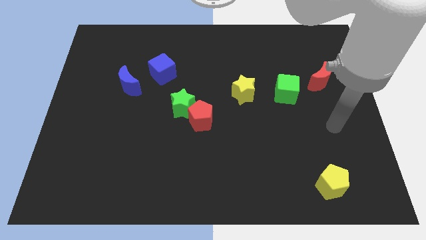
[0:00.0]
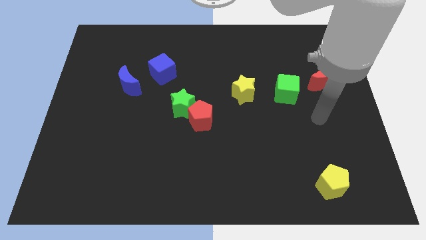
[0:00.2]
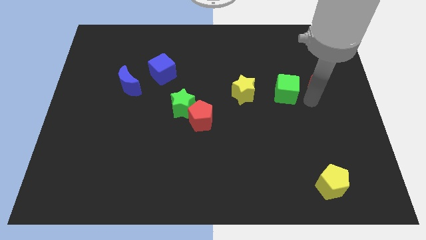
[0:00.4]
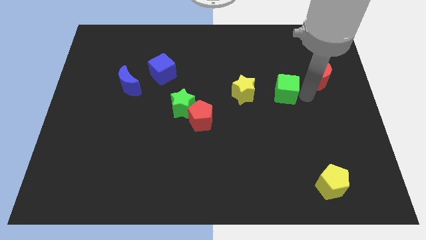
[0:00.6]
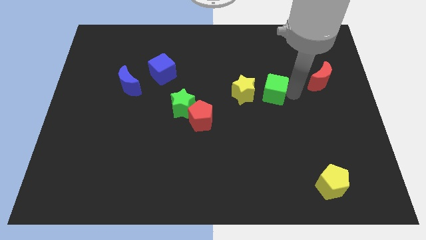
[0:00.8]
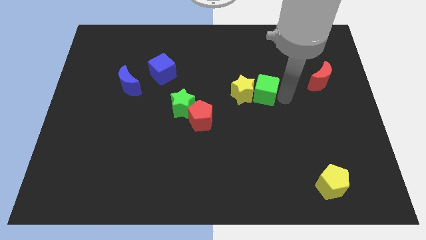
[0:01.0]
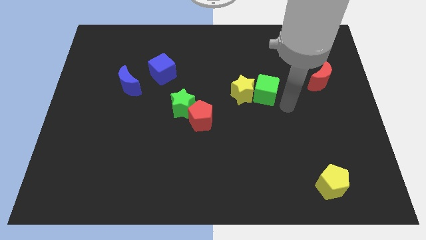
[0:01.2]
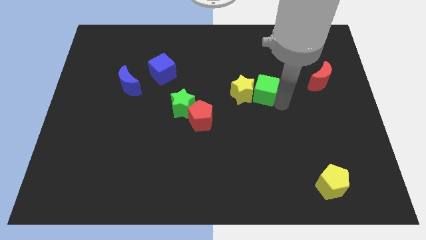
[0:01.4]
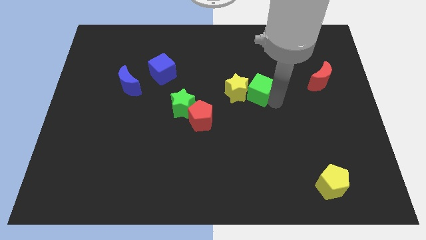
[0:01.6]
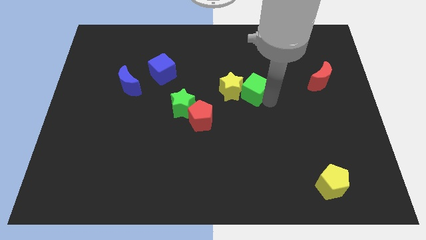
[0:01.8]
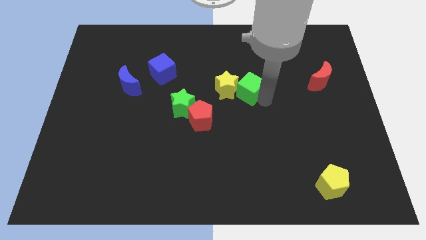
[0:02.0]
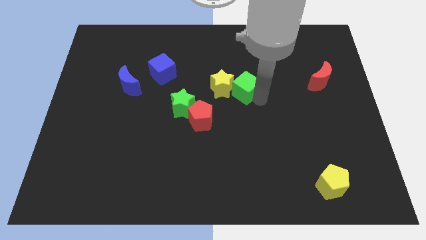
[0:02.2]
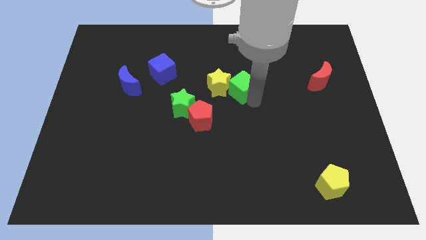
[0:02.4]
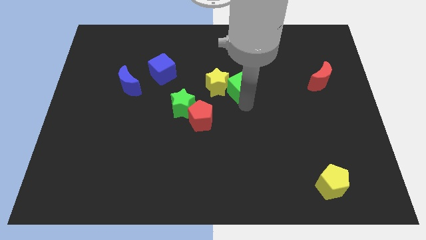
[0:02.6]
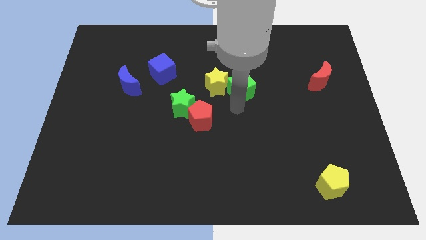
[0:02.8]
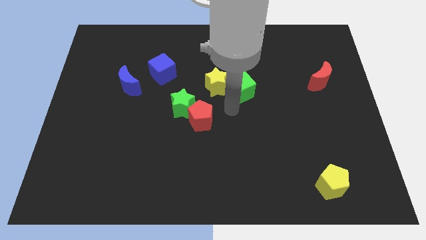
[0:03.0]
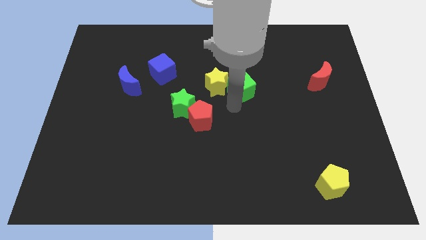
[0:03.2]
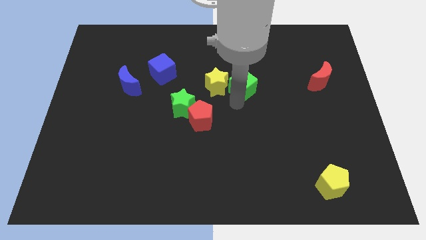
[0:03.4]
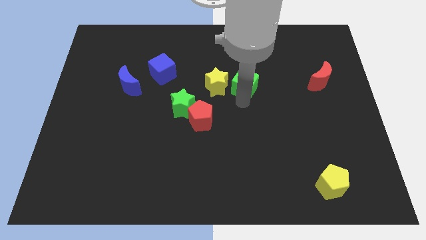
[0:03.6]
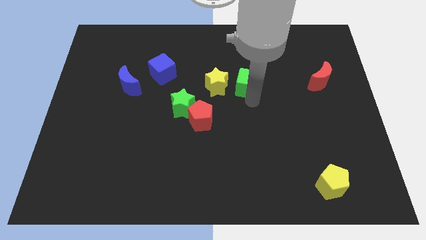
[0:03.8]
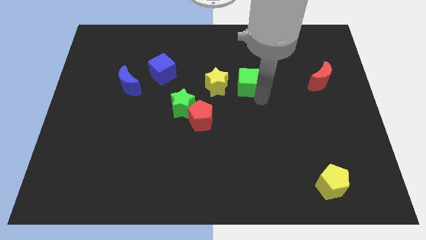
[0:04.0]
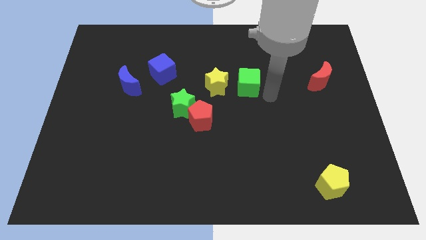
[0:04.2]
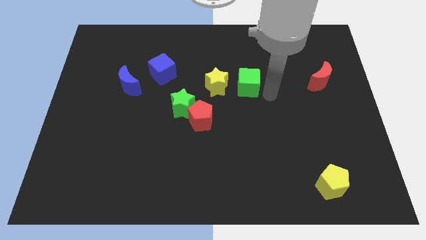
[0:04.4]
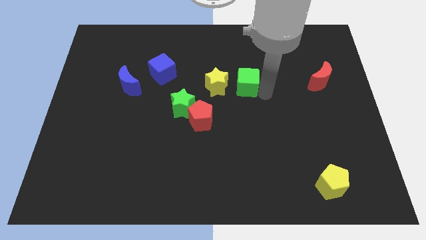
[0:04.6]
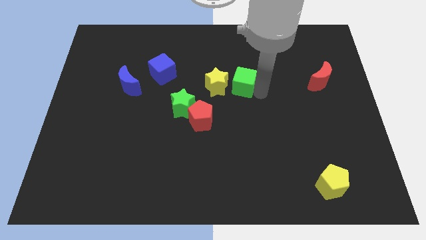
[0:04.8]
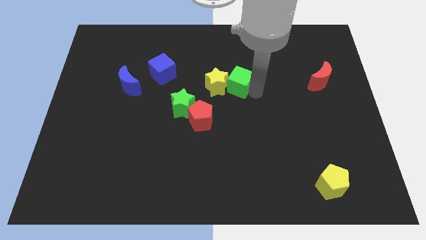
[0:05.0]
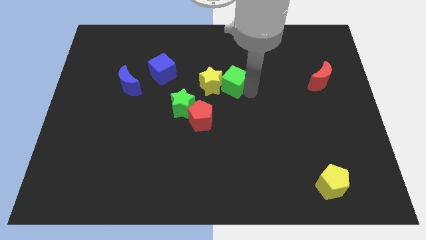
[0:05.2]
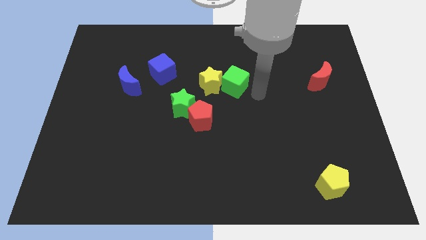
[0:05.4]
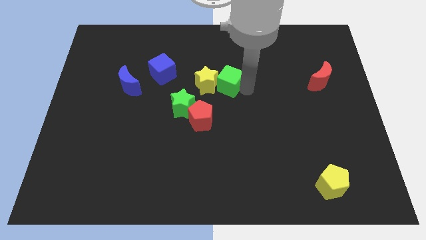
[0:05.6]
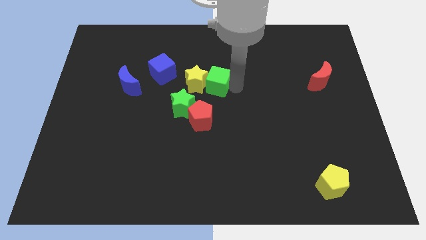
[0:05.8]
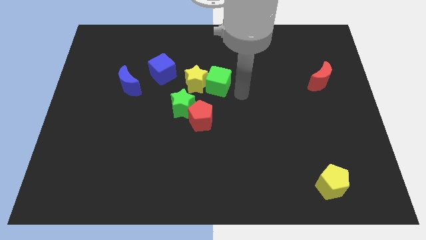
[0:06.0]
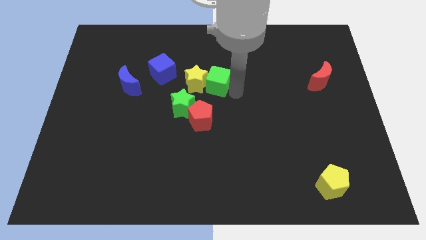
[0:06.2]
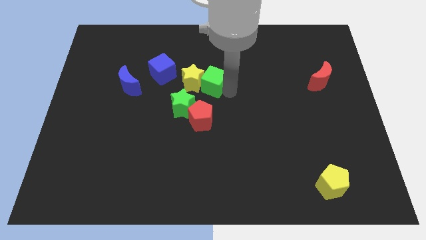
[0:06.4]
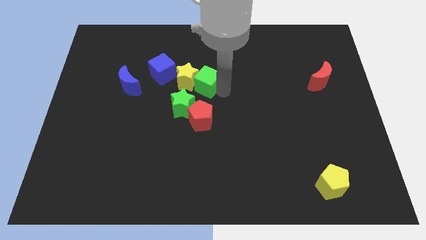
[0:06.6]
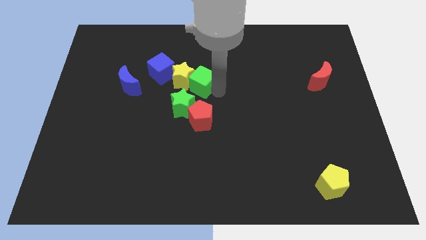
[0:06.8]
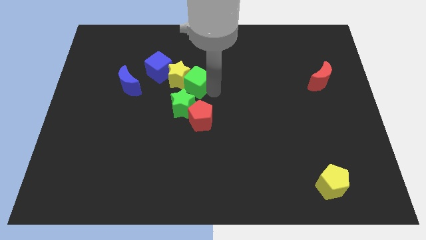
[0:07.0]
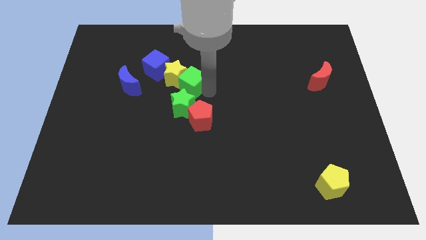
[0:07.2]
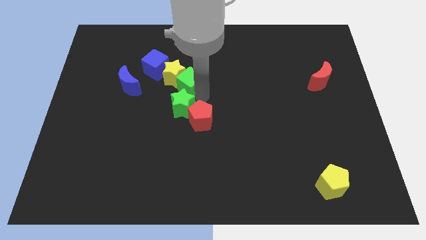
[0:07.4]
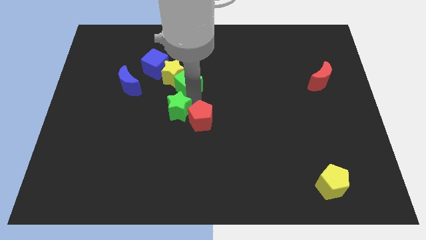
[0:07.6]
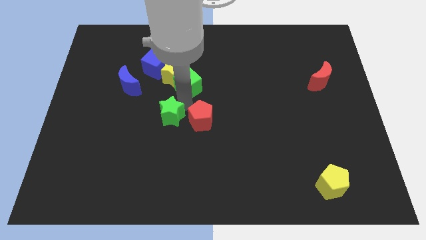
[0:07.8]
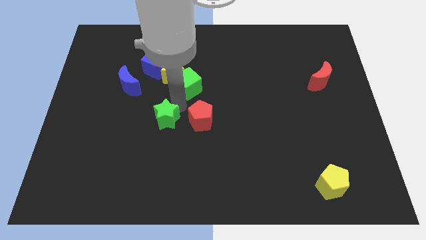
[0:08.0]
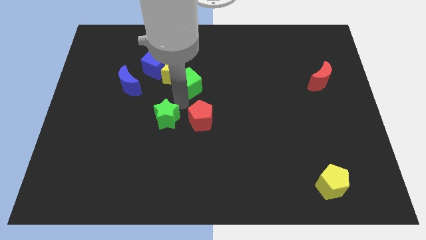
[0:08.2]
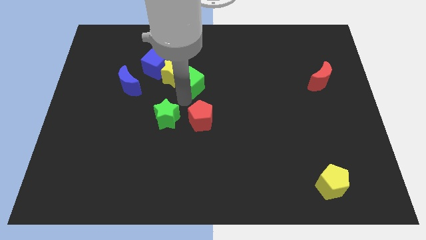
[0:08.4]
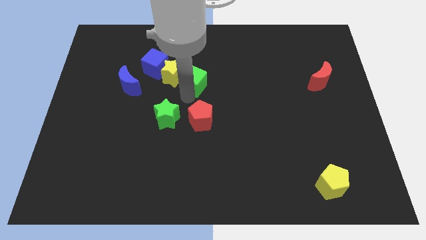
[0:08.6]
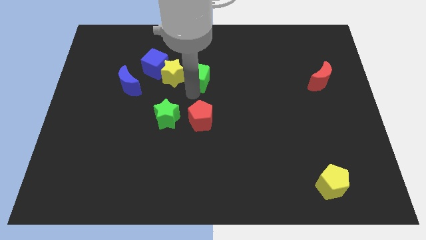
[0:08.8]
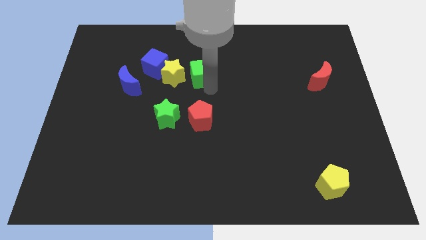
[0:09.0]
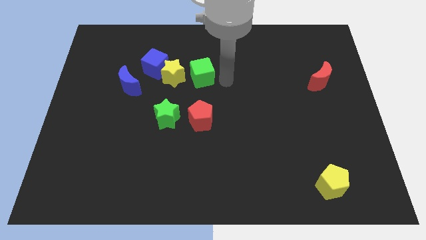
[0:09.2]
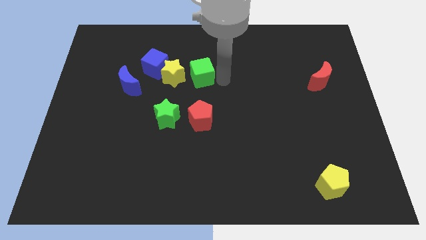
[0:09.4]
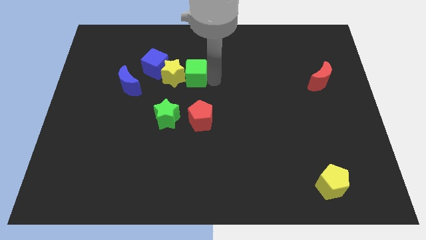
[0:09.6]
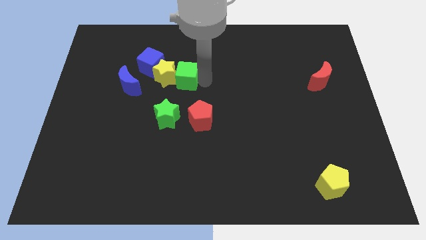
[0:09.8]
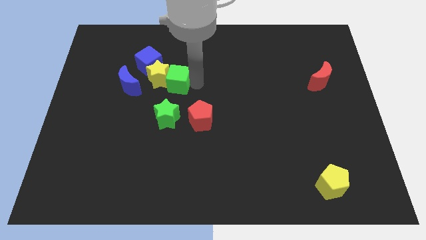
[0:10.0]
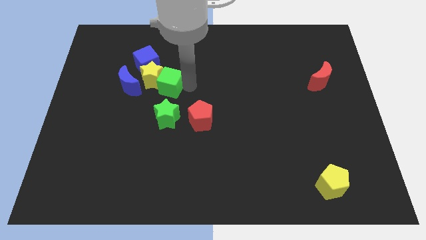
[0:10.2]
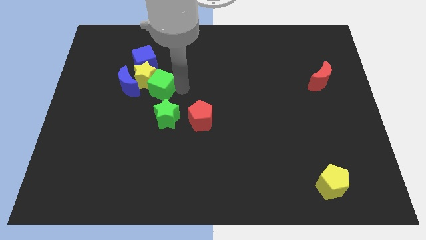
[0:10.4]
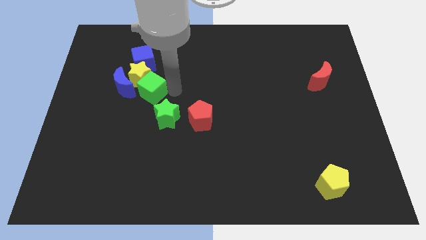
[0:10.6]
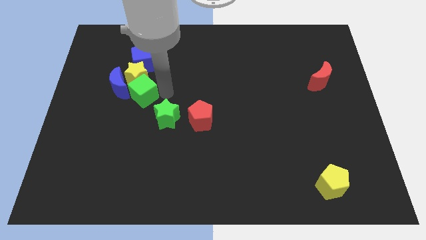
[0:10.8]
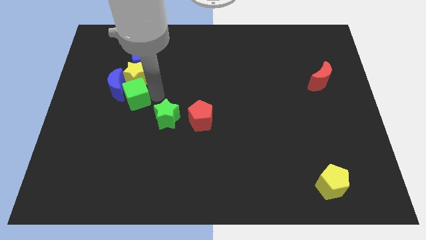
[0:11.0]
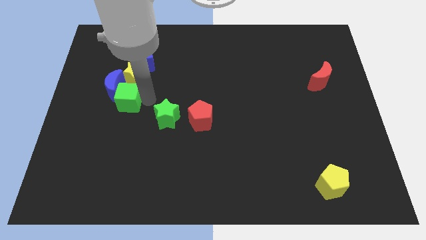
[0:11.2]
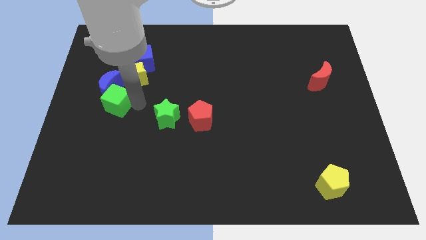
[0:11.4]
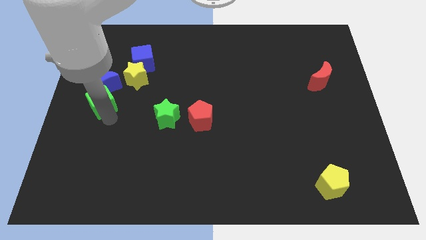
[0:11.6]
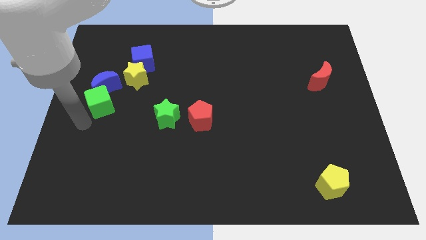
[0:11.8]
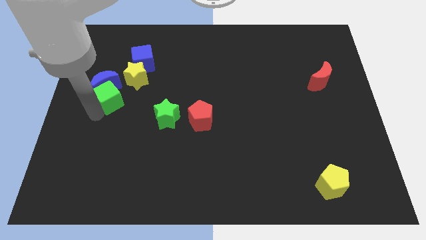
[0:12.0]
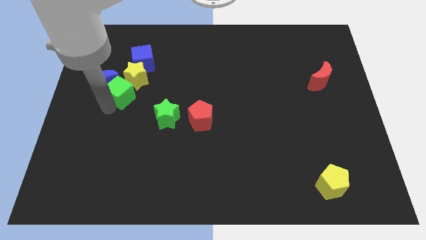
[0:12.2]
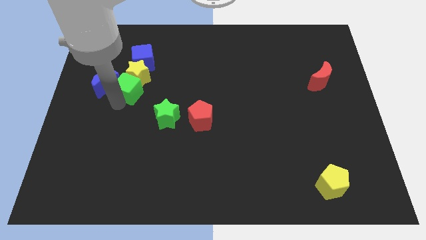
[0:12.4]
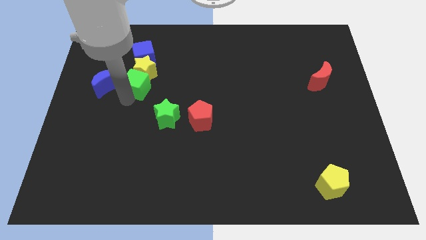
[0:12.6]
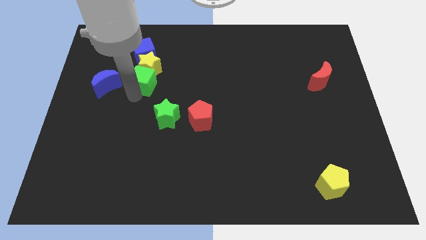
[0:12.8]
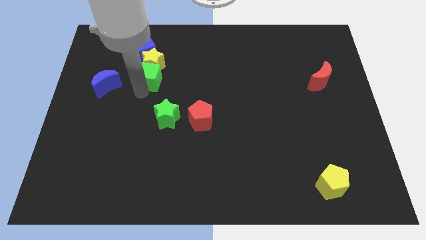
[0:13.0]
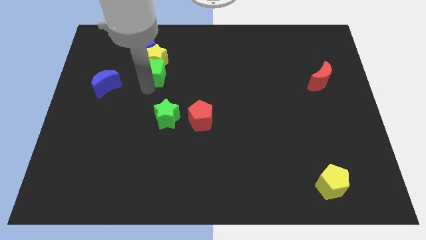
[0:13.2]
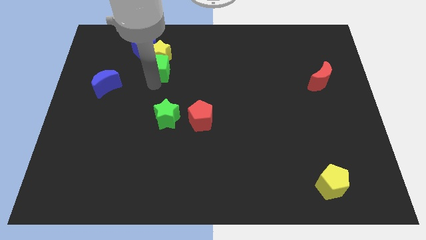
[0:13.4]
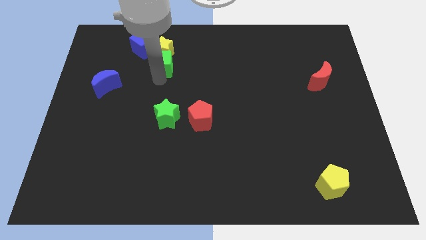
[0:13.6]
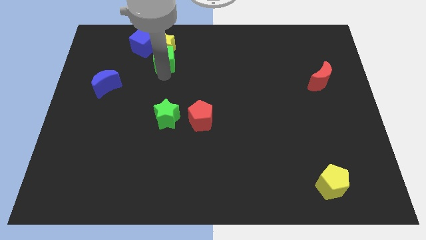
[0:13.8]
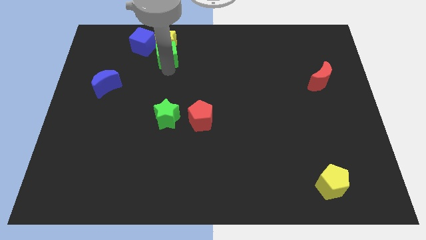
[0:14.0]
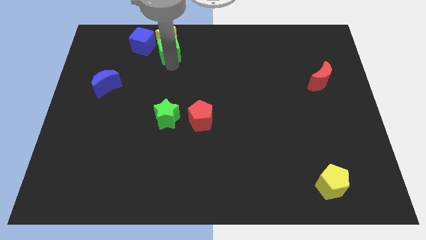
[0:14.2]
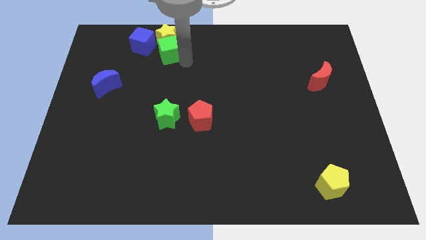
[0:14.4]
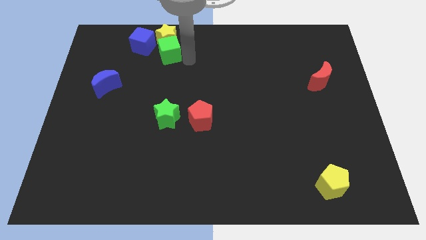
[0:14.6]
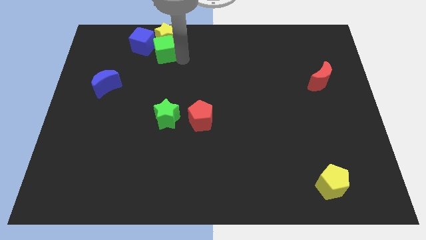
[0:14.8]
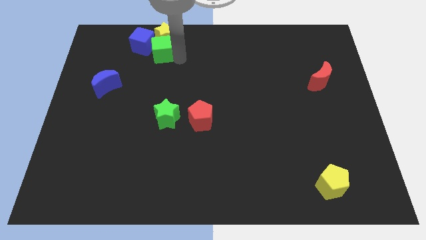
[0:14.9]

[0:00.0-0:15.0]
push the green cube towards the blue cube
